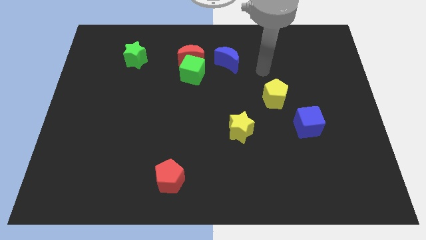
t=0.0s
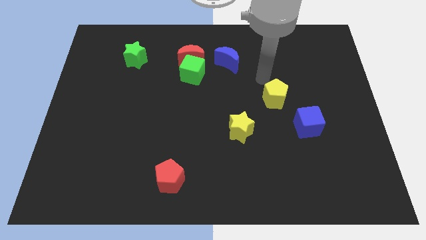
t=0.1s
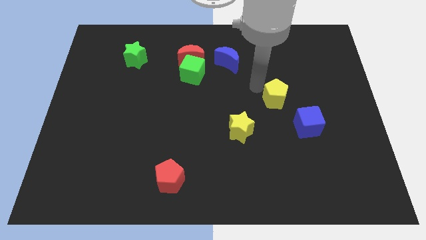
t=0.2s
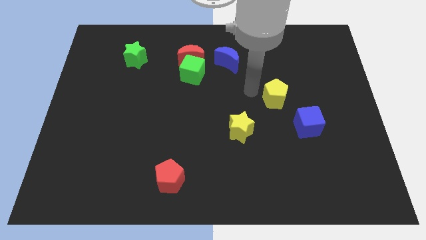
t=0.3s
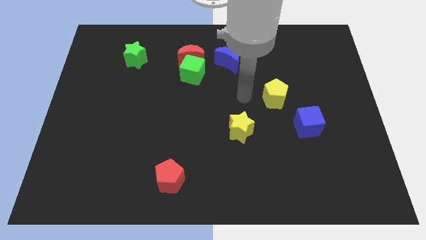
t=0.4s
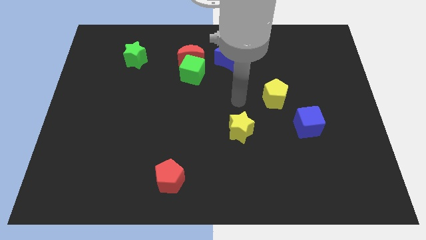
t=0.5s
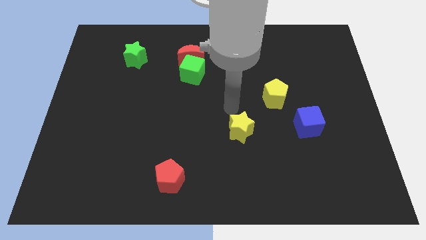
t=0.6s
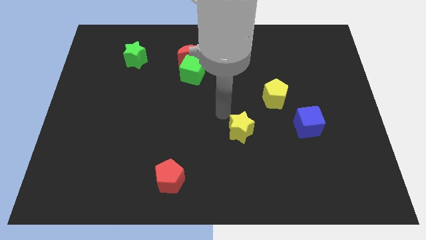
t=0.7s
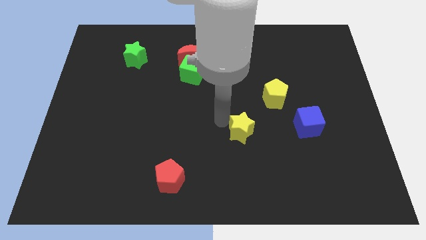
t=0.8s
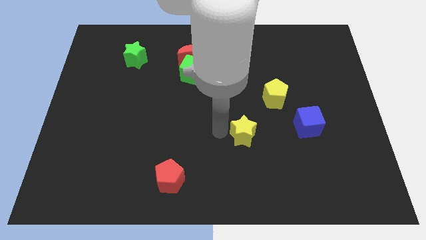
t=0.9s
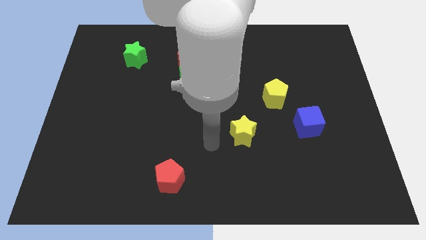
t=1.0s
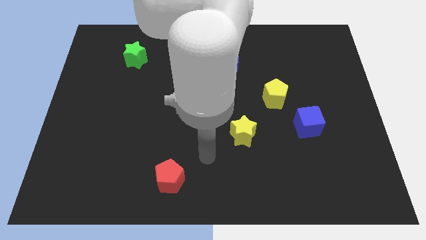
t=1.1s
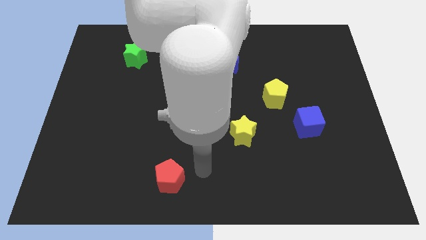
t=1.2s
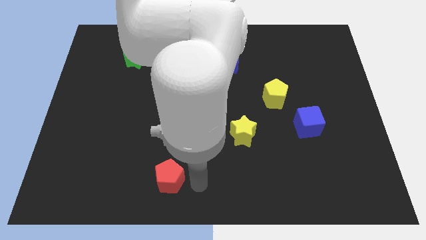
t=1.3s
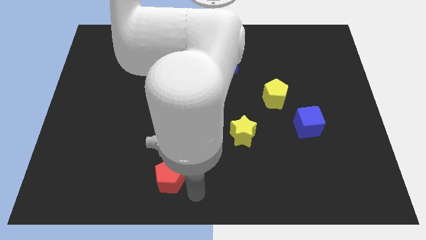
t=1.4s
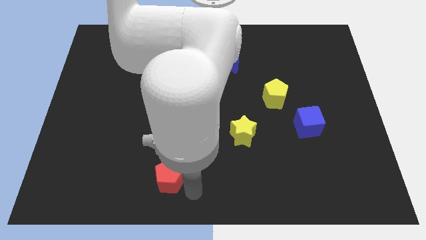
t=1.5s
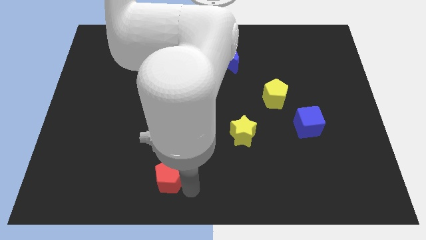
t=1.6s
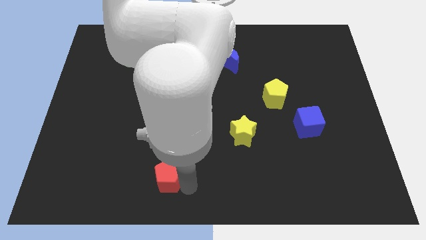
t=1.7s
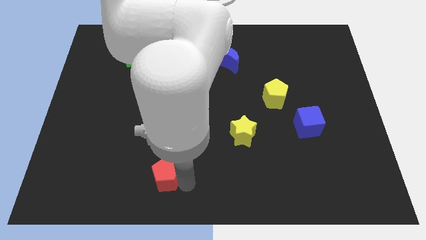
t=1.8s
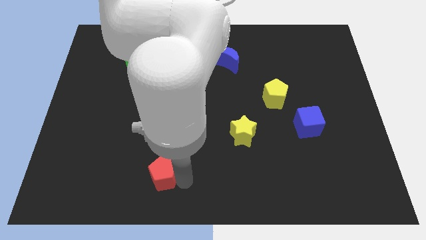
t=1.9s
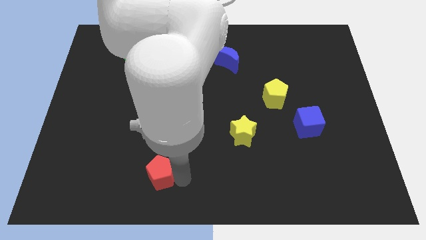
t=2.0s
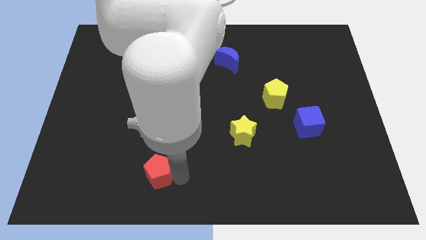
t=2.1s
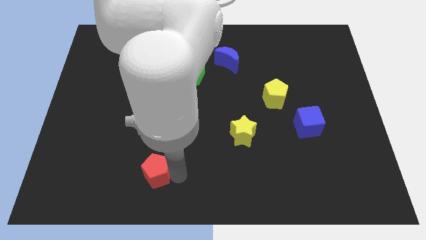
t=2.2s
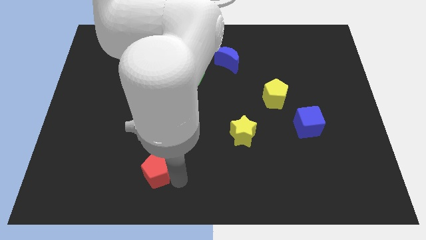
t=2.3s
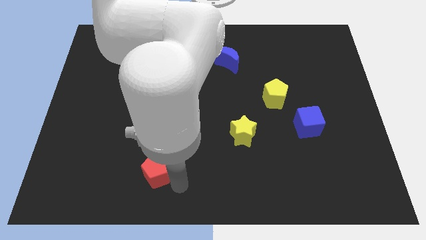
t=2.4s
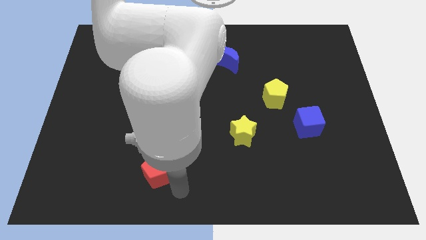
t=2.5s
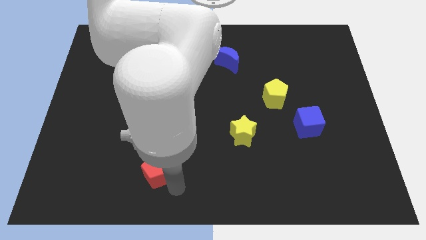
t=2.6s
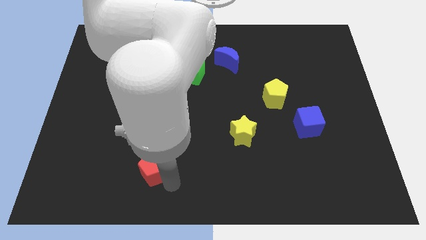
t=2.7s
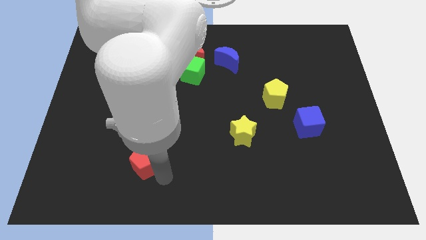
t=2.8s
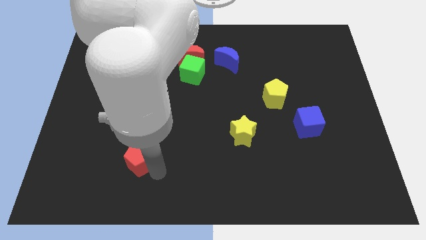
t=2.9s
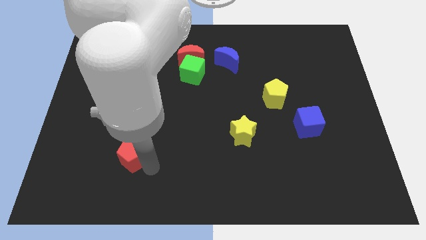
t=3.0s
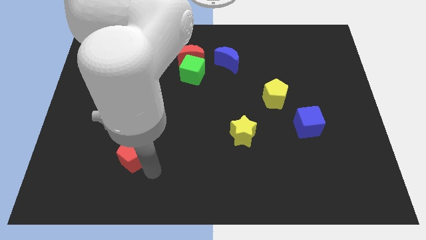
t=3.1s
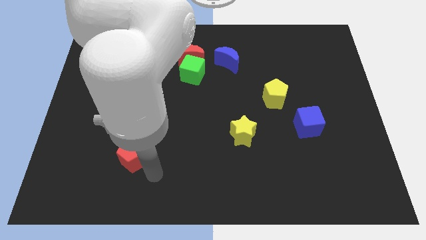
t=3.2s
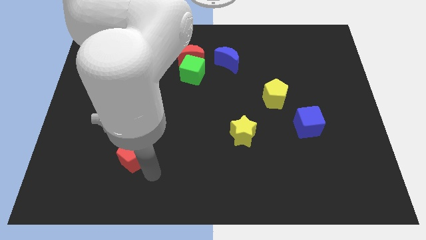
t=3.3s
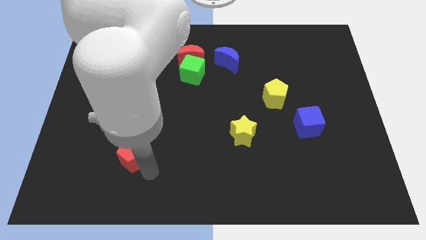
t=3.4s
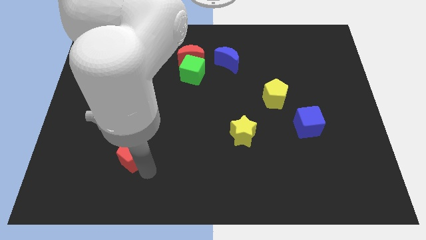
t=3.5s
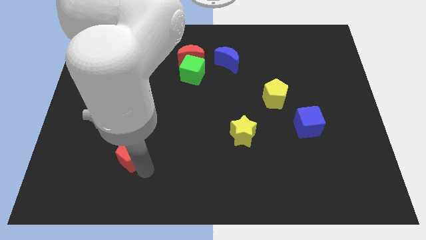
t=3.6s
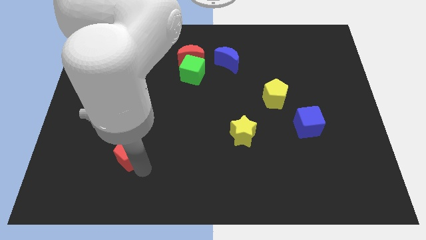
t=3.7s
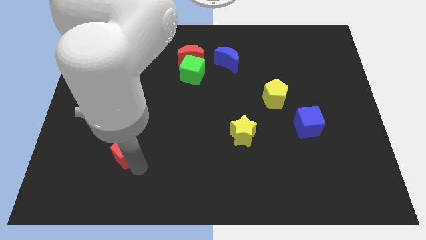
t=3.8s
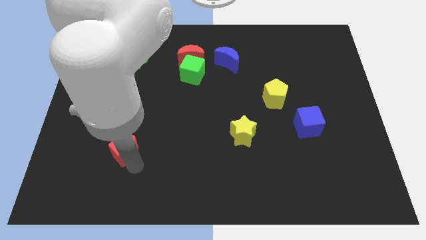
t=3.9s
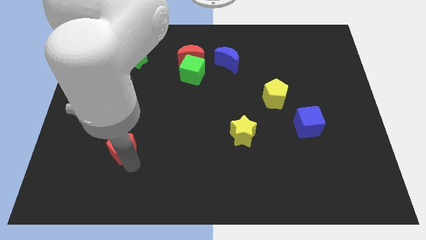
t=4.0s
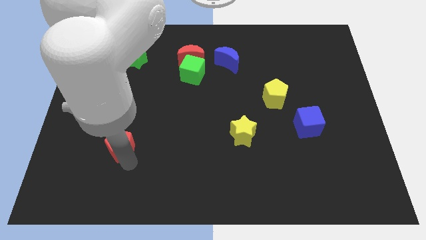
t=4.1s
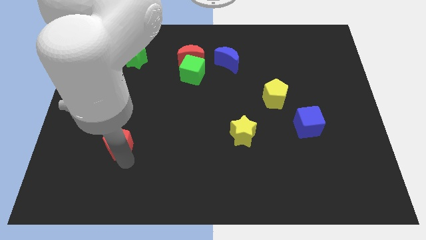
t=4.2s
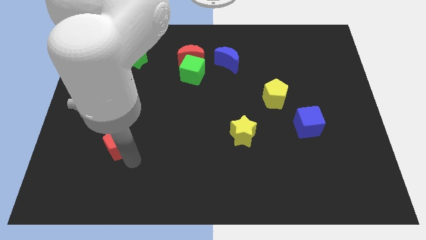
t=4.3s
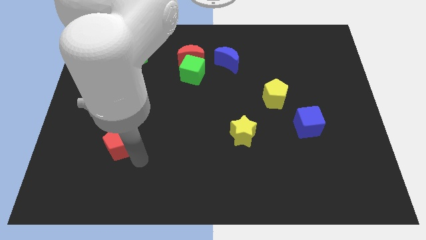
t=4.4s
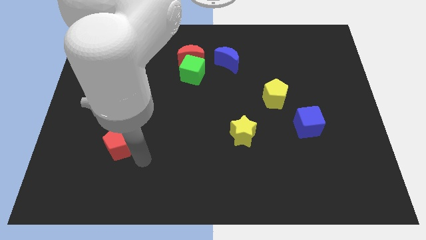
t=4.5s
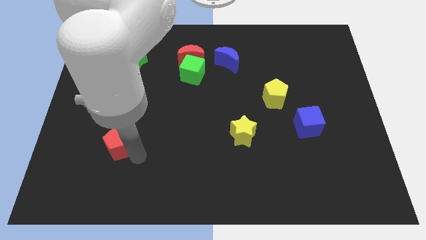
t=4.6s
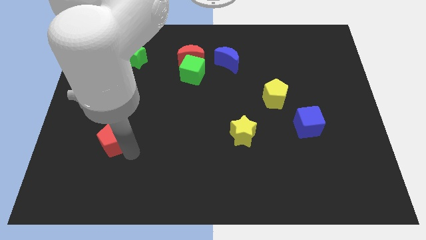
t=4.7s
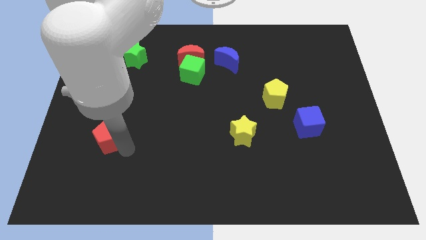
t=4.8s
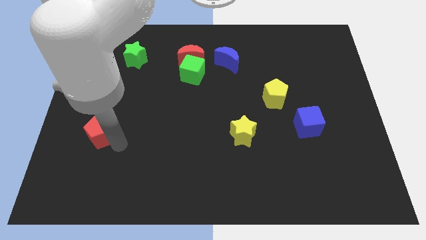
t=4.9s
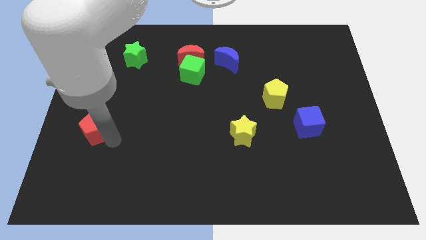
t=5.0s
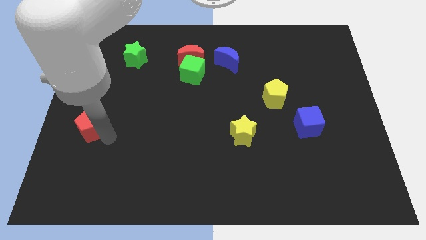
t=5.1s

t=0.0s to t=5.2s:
move the red pentagon to the left side

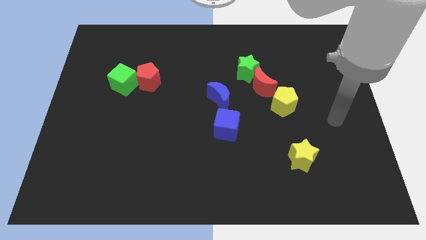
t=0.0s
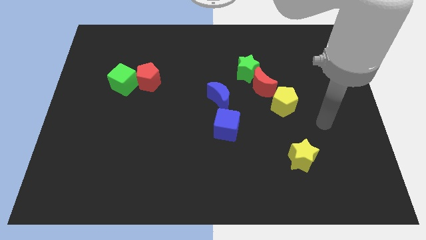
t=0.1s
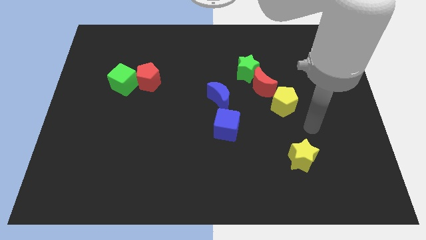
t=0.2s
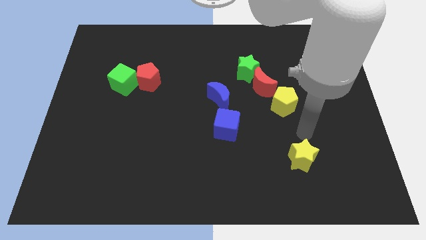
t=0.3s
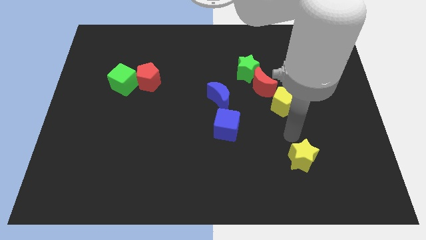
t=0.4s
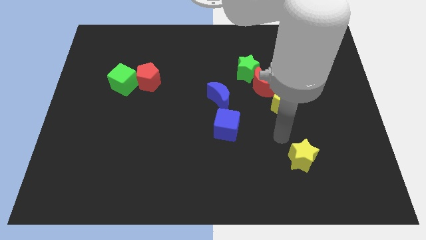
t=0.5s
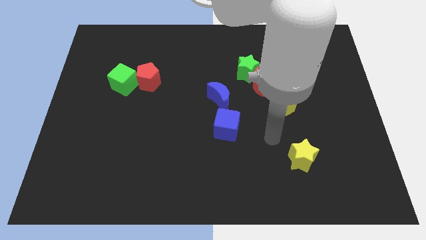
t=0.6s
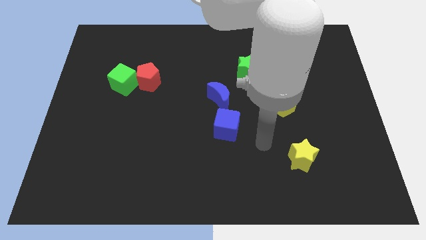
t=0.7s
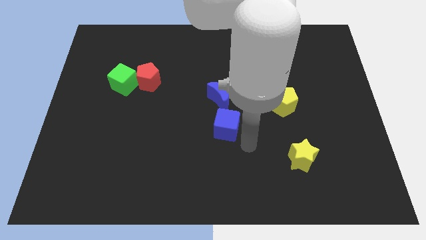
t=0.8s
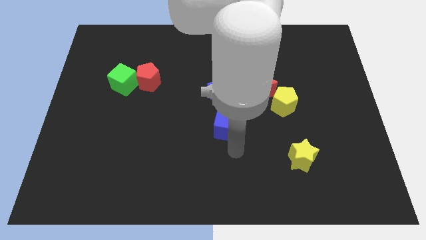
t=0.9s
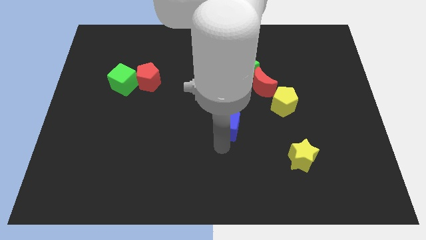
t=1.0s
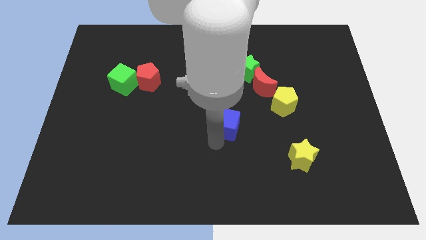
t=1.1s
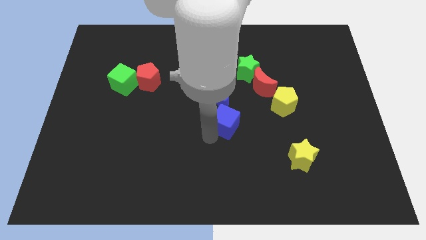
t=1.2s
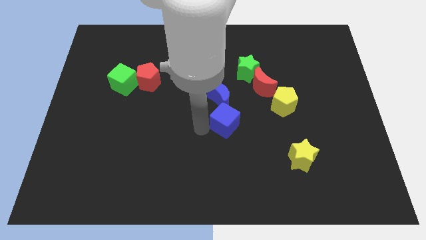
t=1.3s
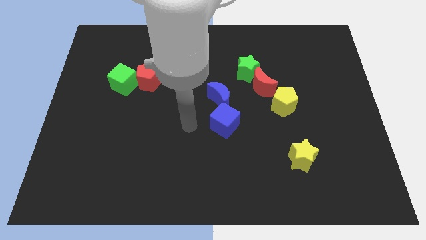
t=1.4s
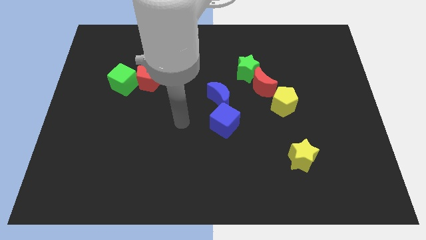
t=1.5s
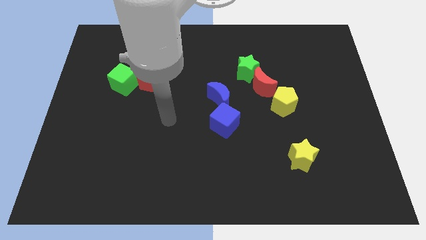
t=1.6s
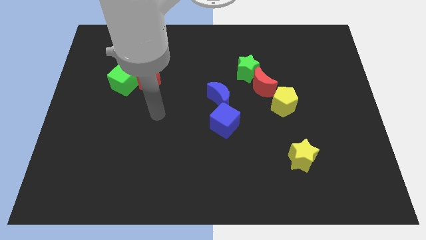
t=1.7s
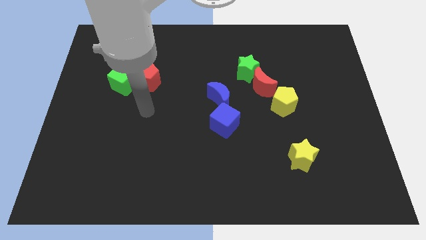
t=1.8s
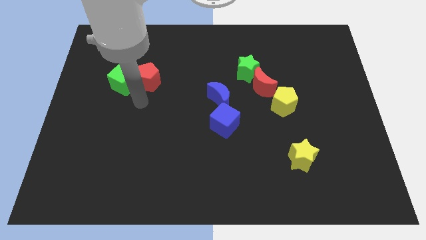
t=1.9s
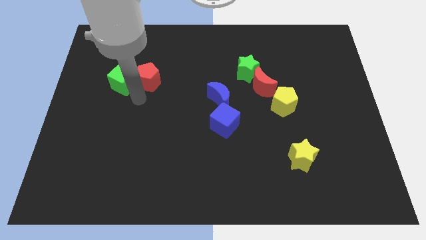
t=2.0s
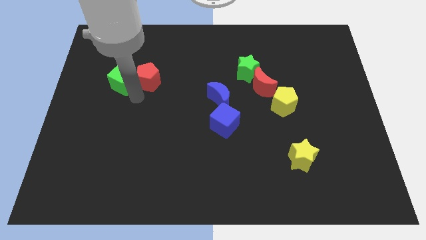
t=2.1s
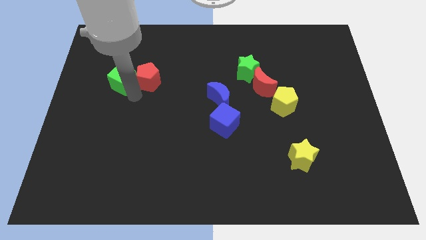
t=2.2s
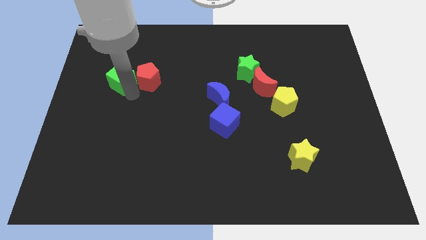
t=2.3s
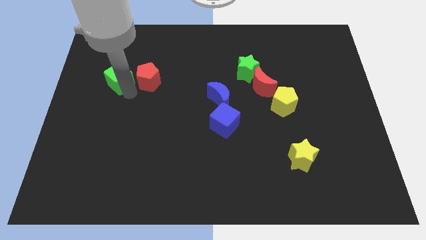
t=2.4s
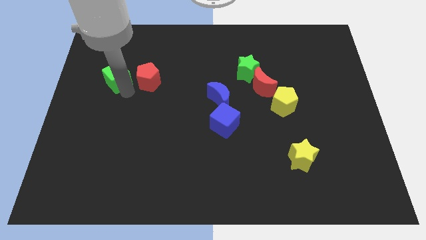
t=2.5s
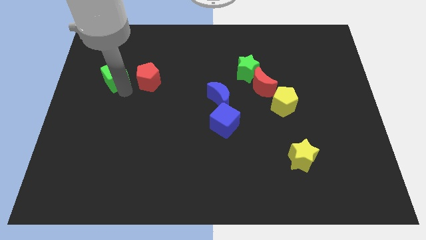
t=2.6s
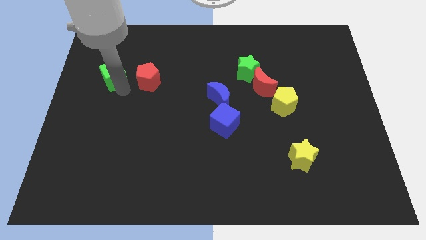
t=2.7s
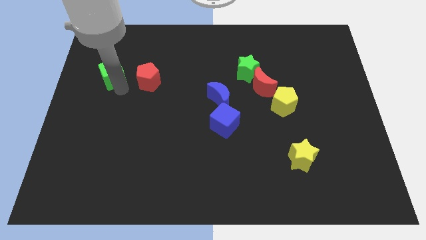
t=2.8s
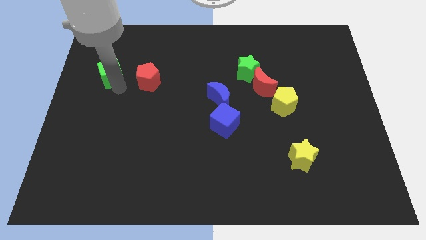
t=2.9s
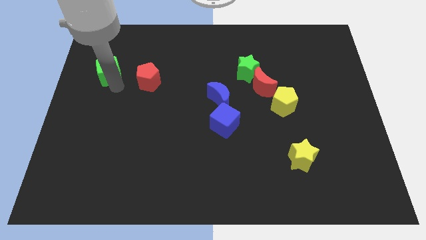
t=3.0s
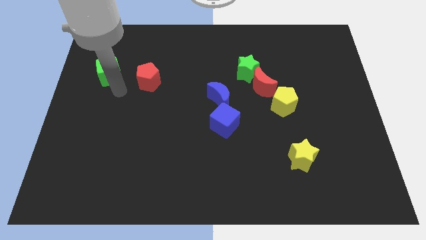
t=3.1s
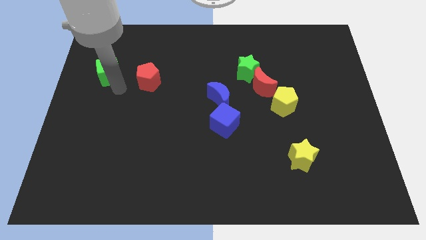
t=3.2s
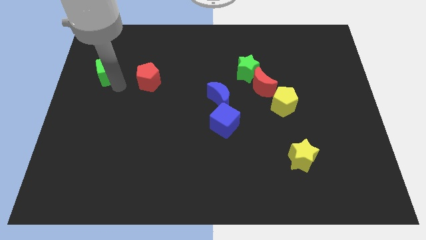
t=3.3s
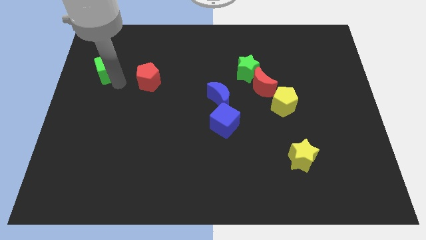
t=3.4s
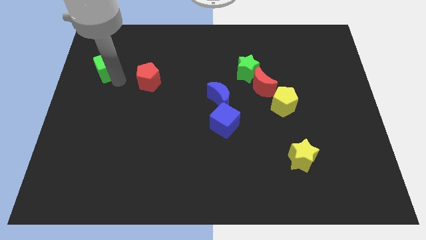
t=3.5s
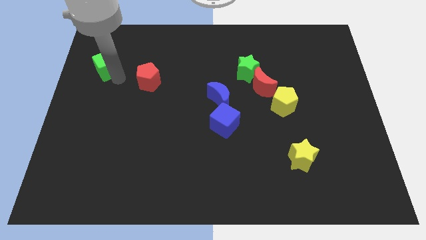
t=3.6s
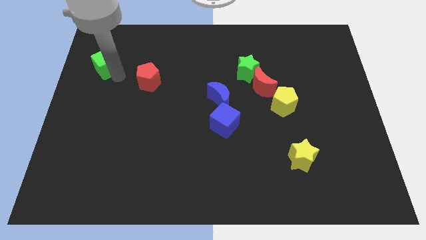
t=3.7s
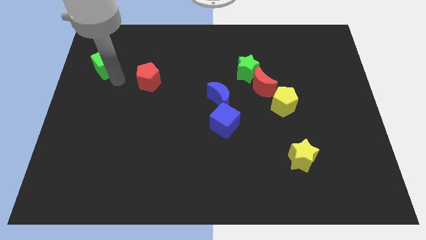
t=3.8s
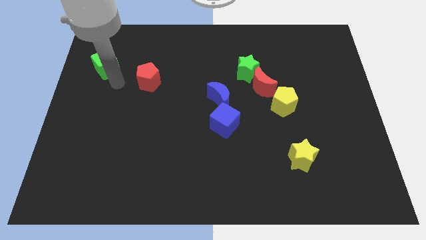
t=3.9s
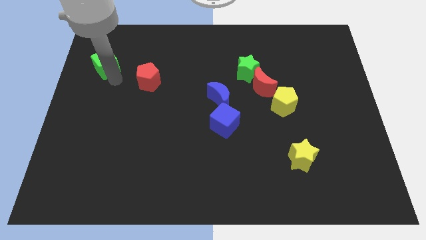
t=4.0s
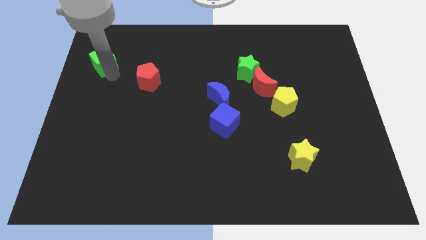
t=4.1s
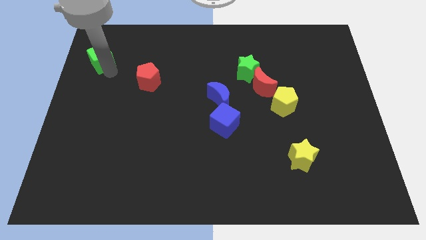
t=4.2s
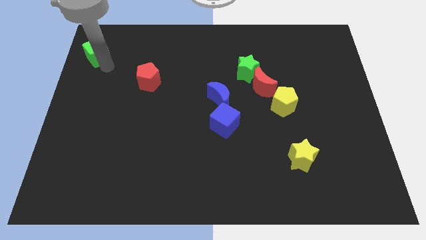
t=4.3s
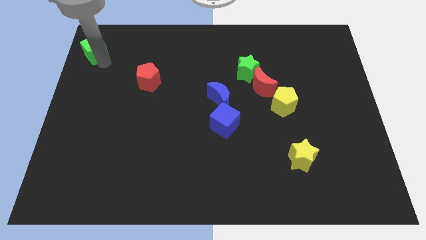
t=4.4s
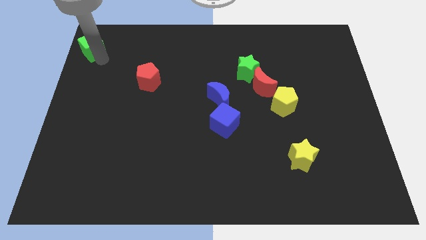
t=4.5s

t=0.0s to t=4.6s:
slide the green cube to the top left
